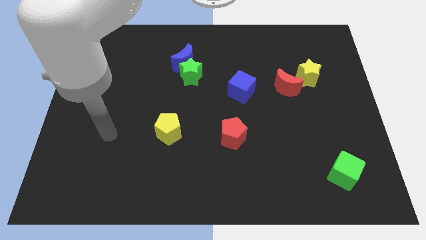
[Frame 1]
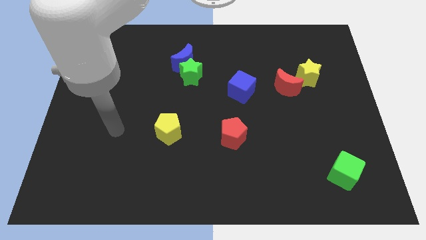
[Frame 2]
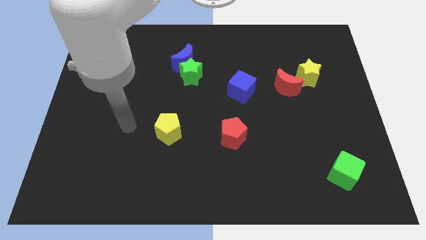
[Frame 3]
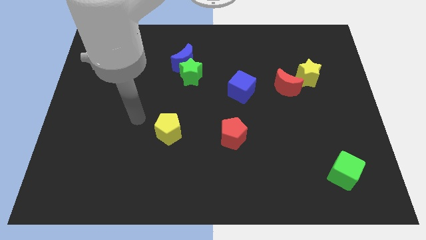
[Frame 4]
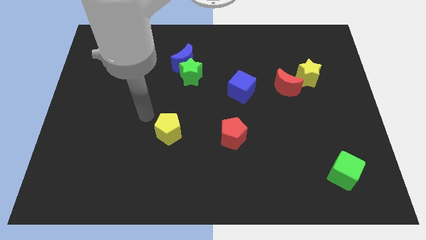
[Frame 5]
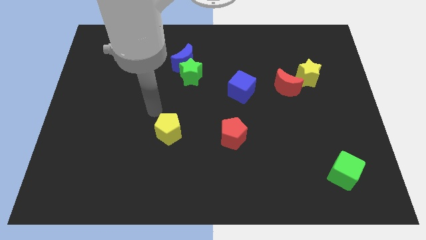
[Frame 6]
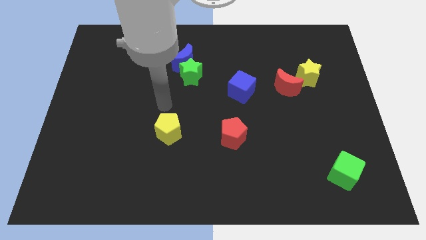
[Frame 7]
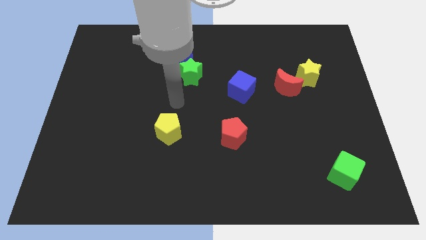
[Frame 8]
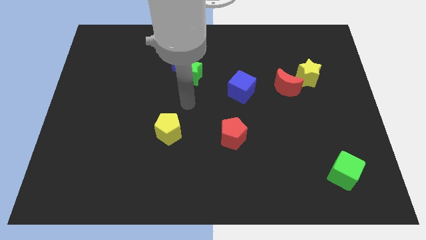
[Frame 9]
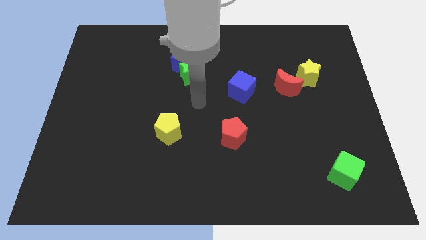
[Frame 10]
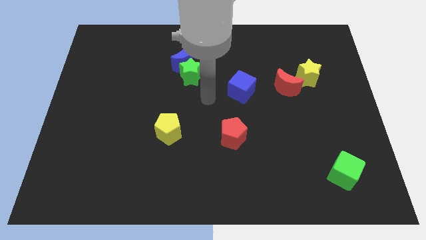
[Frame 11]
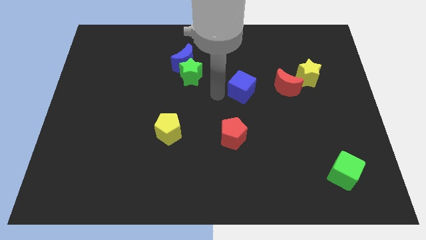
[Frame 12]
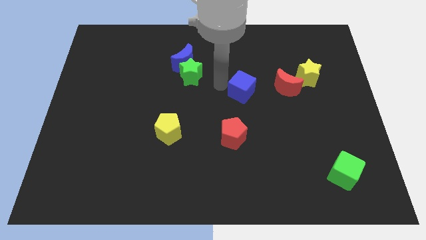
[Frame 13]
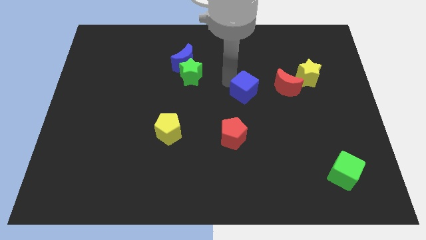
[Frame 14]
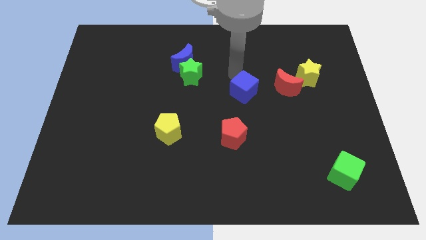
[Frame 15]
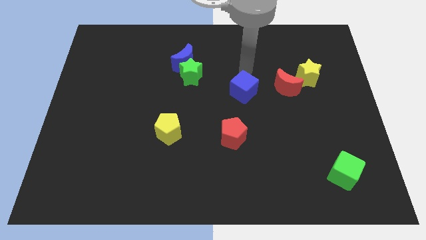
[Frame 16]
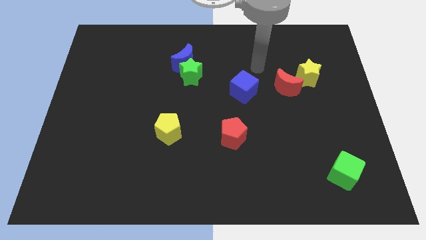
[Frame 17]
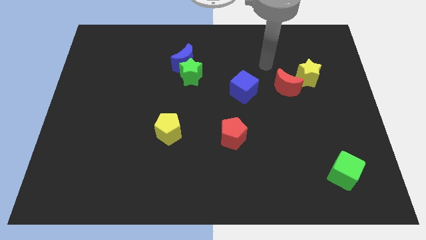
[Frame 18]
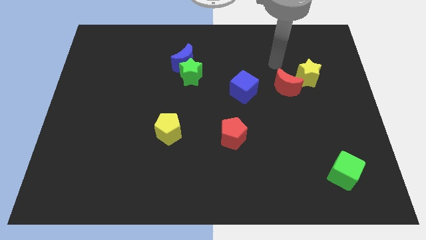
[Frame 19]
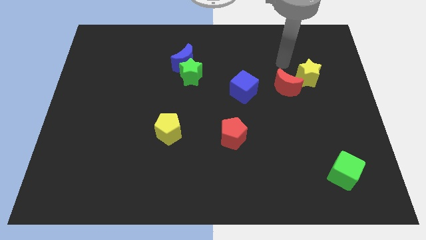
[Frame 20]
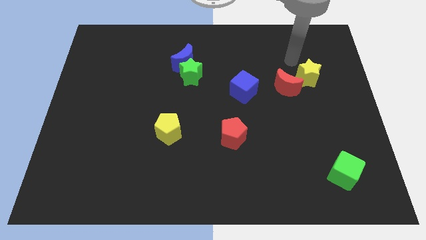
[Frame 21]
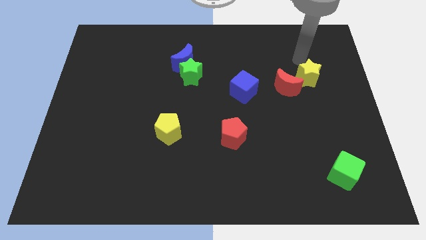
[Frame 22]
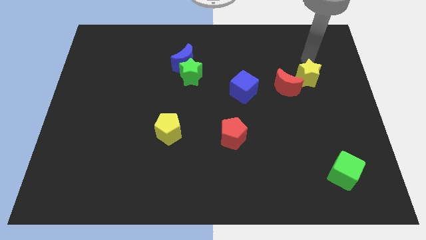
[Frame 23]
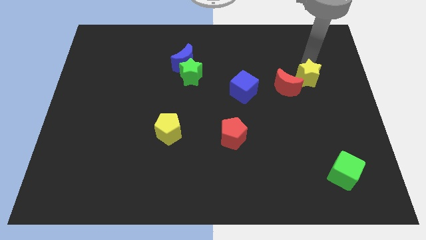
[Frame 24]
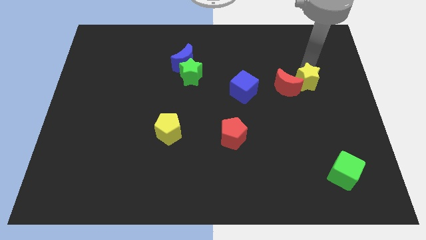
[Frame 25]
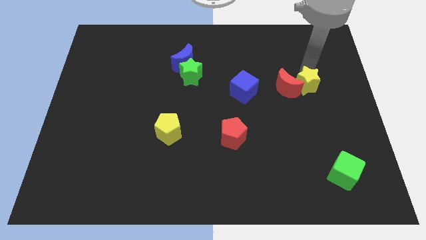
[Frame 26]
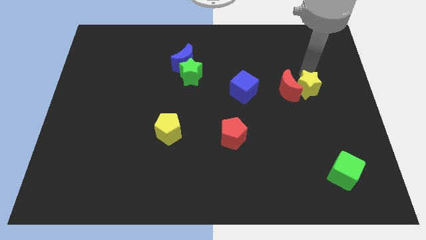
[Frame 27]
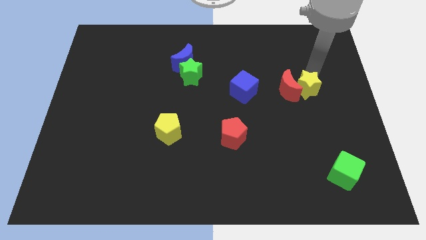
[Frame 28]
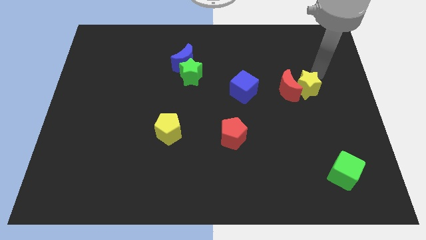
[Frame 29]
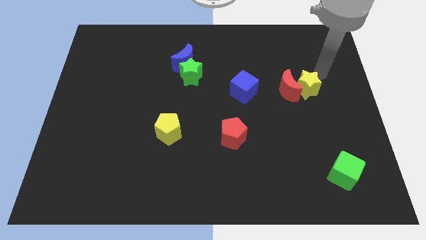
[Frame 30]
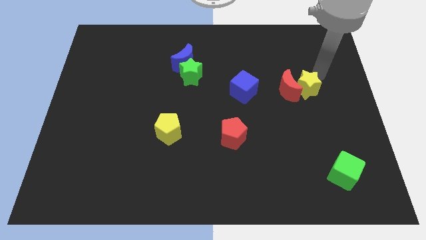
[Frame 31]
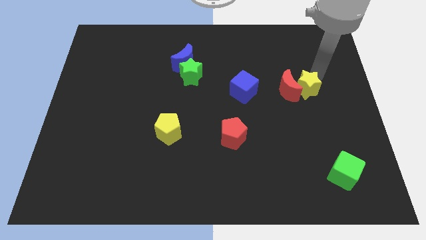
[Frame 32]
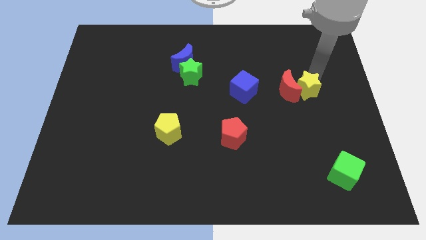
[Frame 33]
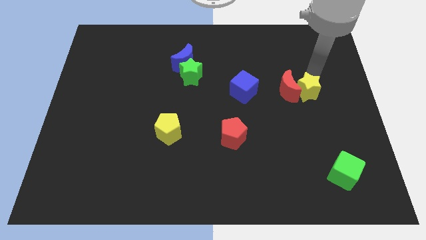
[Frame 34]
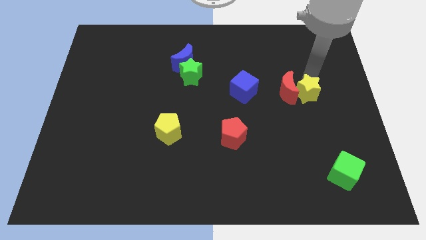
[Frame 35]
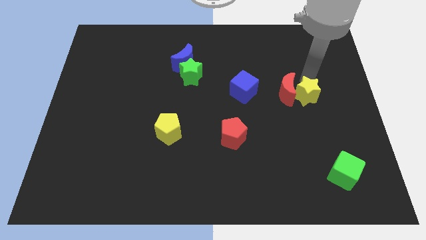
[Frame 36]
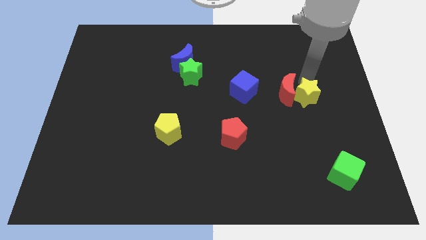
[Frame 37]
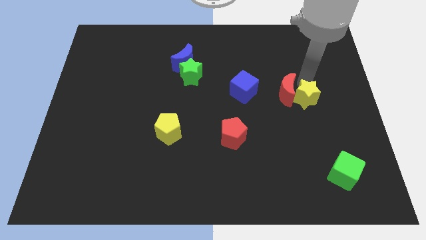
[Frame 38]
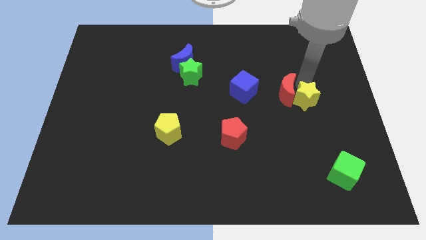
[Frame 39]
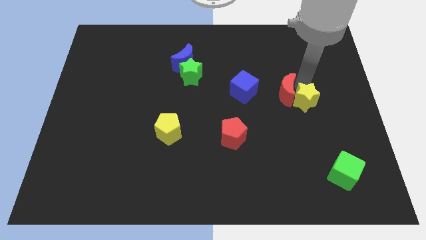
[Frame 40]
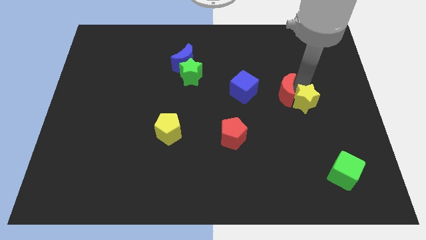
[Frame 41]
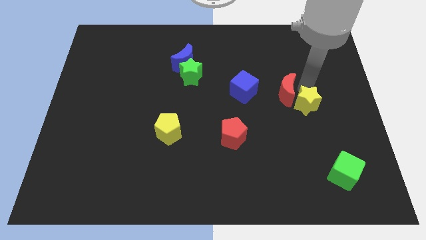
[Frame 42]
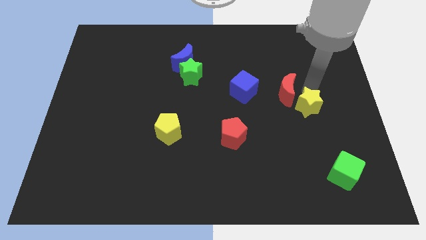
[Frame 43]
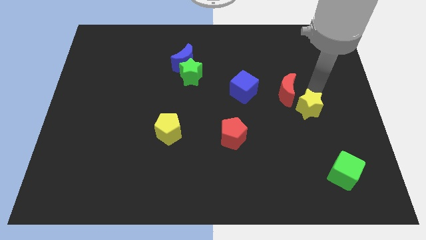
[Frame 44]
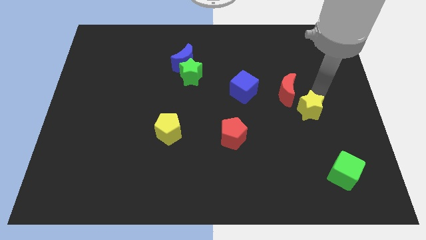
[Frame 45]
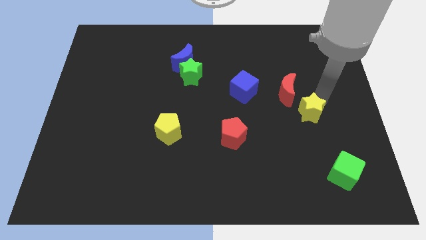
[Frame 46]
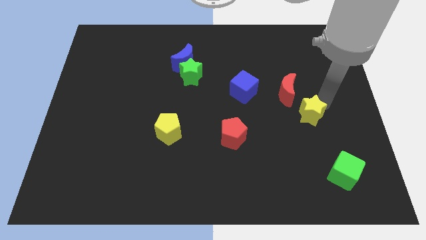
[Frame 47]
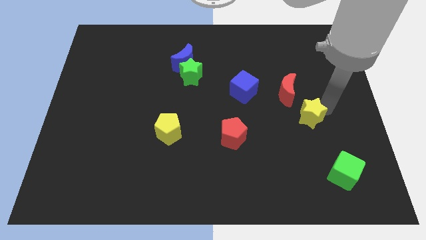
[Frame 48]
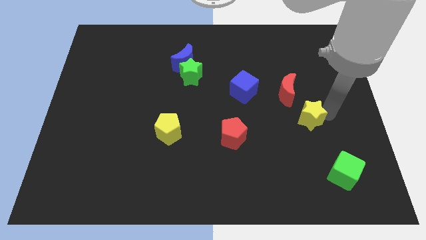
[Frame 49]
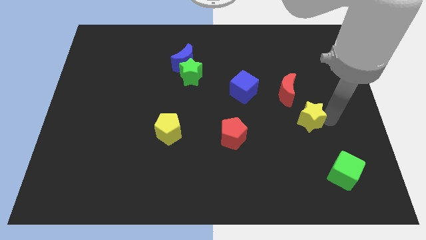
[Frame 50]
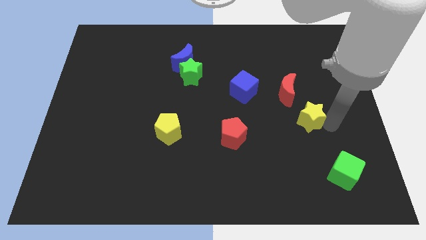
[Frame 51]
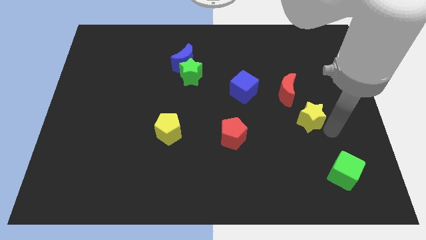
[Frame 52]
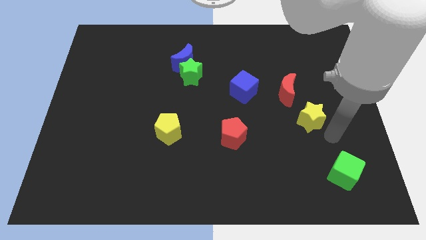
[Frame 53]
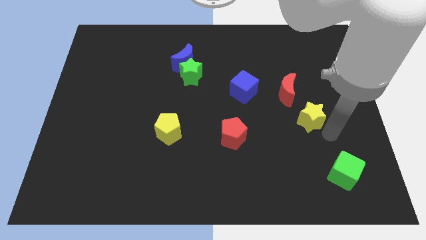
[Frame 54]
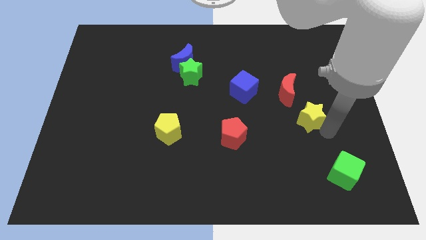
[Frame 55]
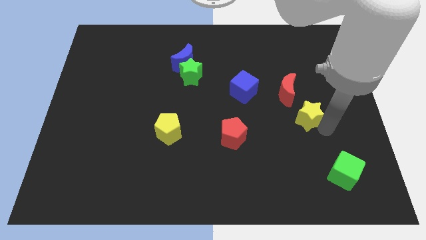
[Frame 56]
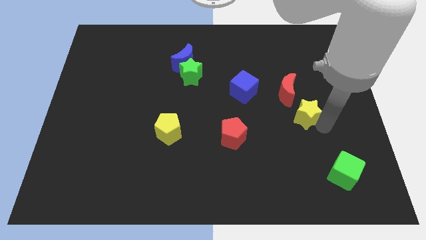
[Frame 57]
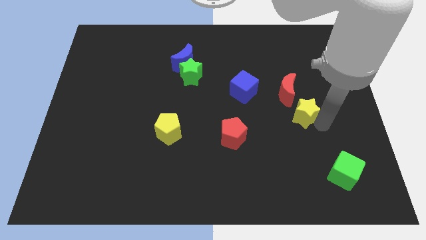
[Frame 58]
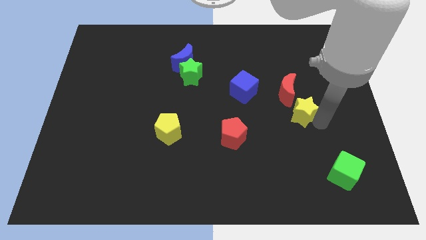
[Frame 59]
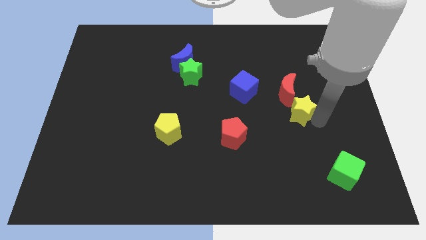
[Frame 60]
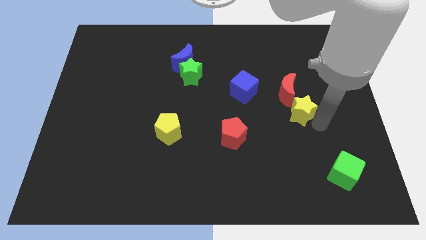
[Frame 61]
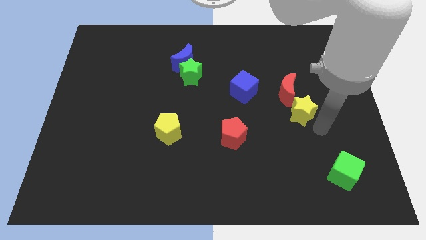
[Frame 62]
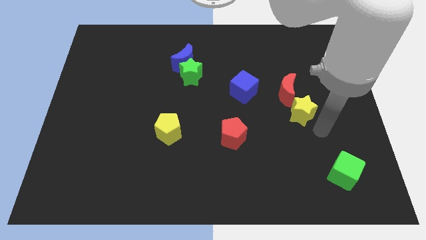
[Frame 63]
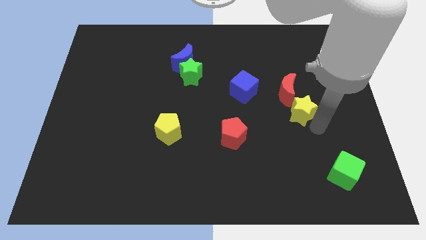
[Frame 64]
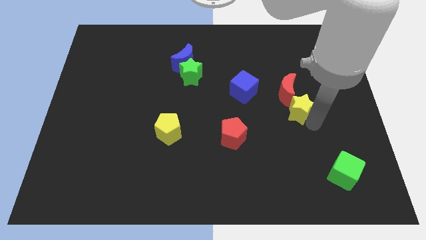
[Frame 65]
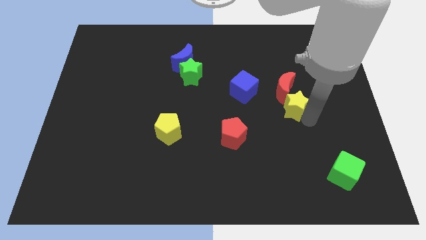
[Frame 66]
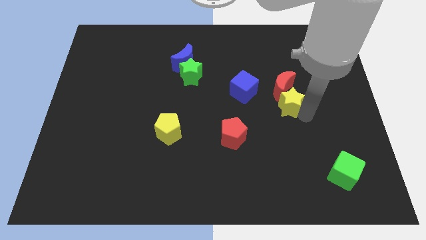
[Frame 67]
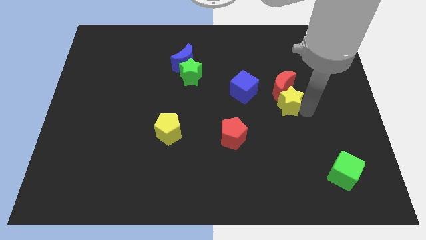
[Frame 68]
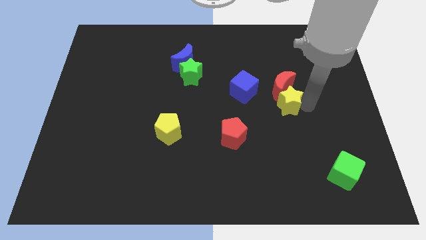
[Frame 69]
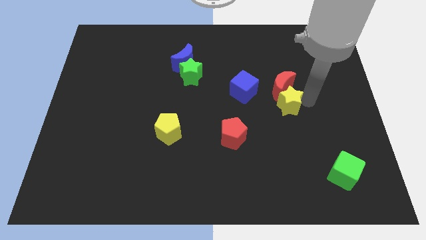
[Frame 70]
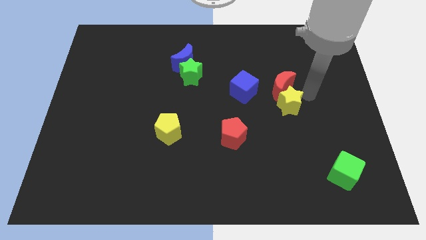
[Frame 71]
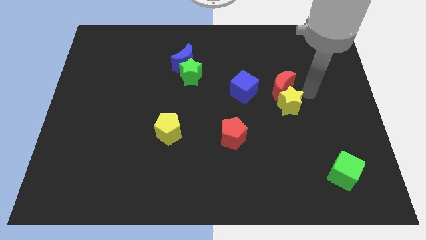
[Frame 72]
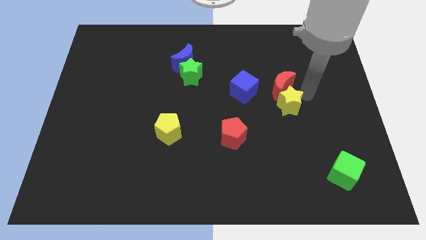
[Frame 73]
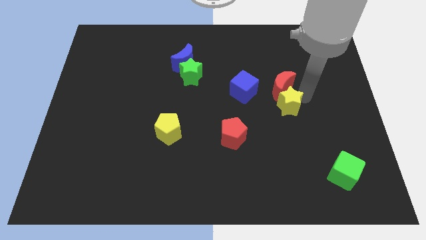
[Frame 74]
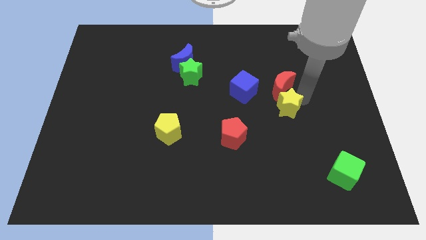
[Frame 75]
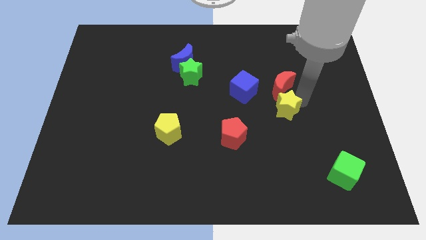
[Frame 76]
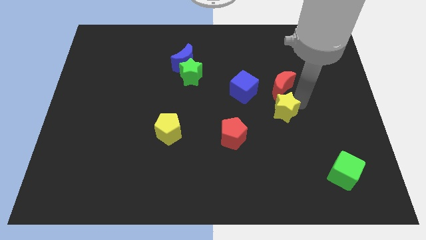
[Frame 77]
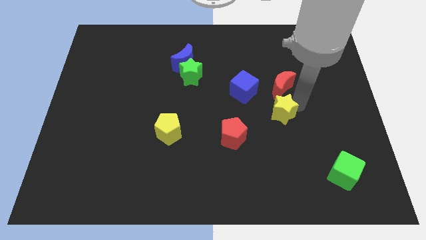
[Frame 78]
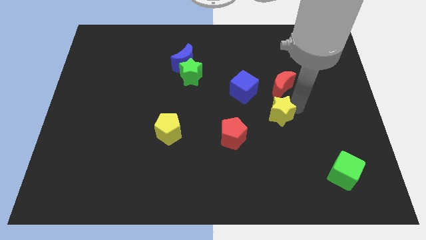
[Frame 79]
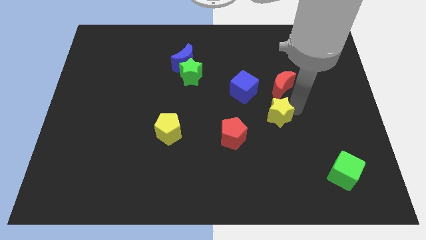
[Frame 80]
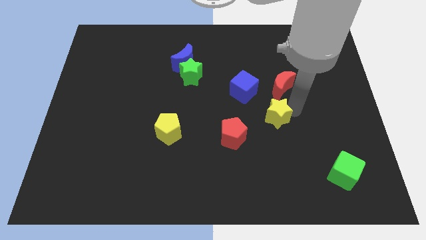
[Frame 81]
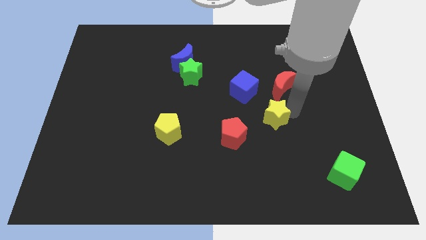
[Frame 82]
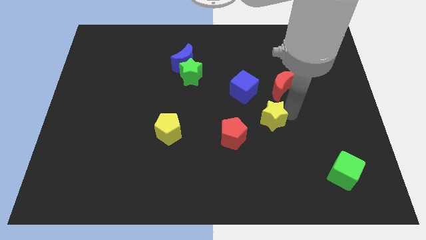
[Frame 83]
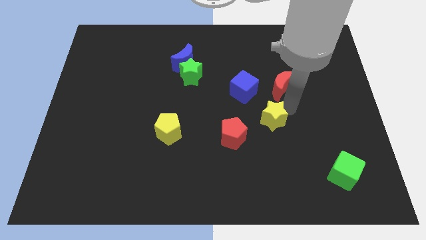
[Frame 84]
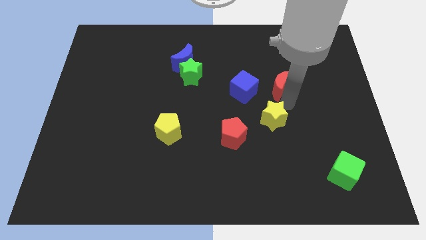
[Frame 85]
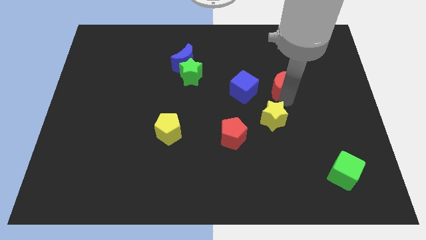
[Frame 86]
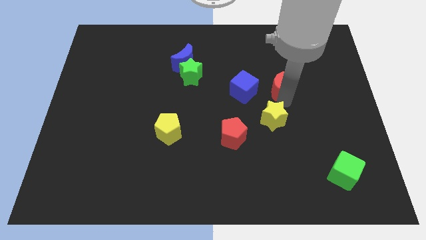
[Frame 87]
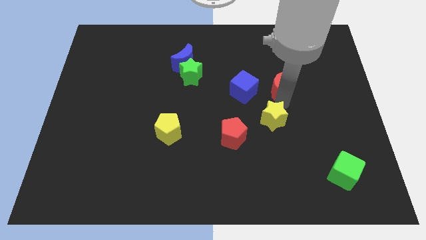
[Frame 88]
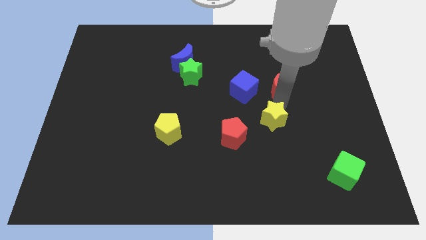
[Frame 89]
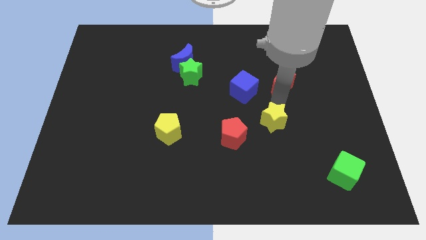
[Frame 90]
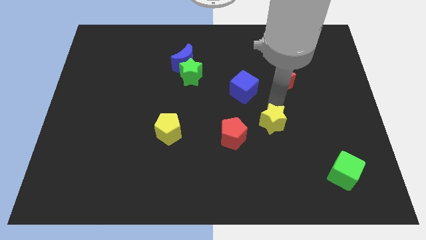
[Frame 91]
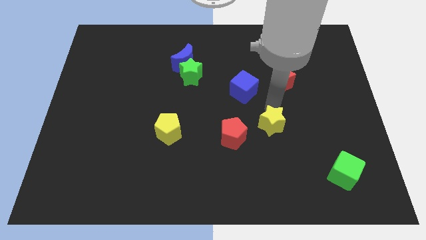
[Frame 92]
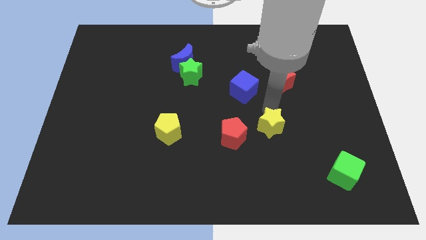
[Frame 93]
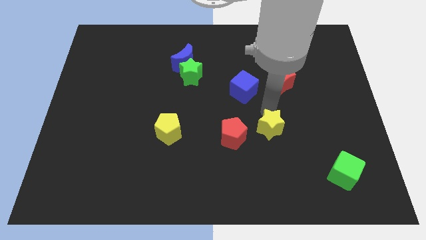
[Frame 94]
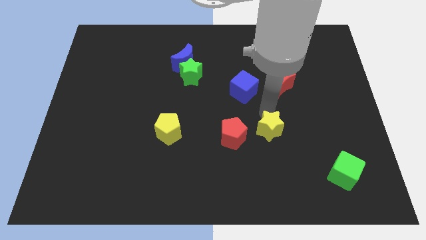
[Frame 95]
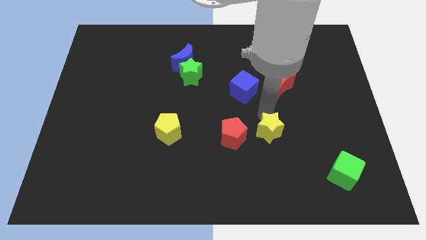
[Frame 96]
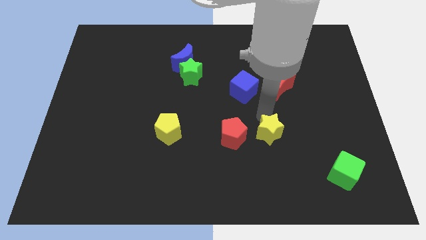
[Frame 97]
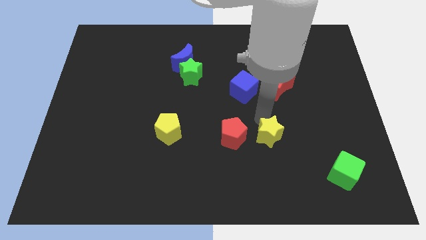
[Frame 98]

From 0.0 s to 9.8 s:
move the yellow star diagonally down and to the left
